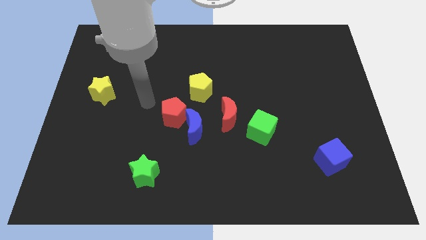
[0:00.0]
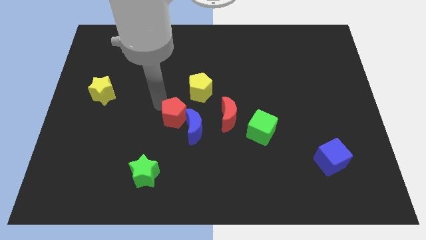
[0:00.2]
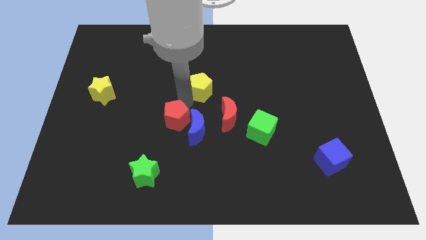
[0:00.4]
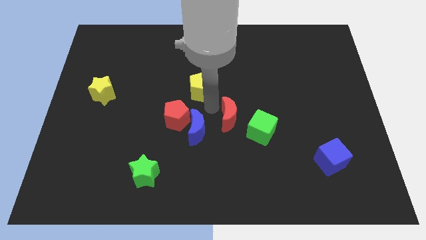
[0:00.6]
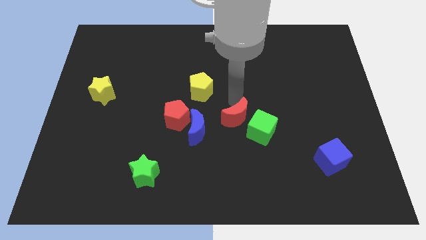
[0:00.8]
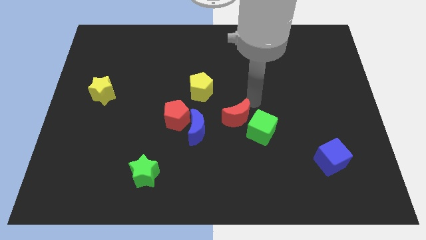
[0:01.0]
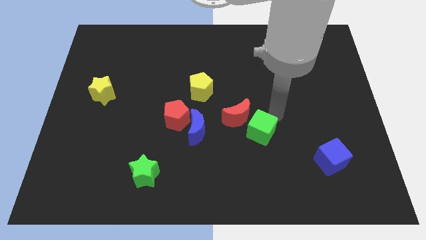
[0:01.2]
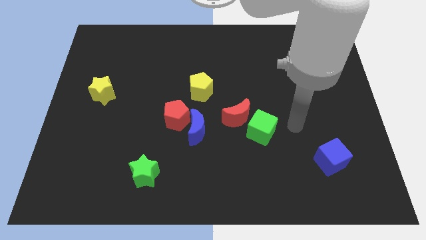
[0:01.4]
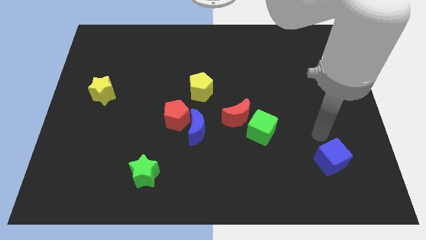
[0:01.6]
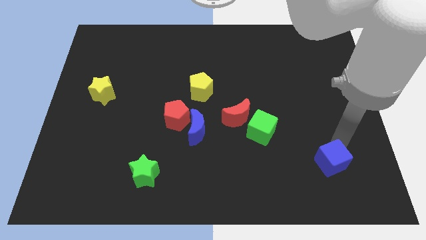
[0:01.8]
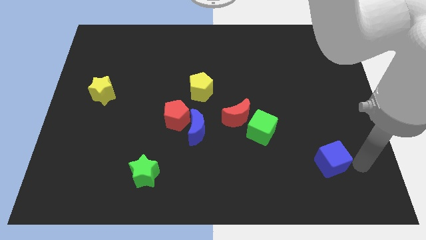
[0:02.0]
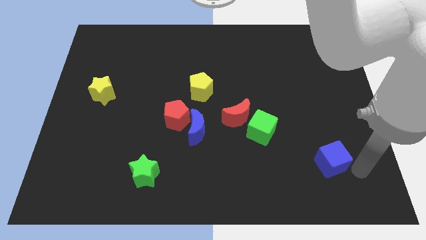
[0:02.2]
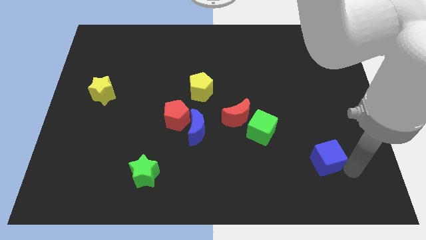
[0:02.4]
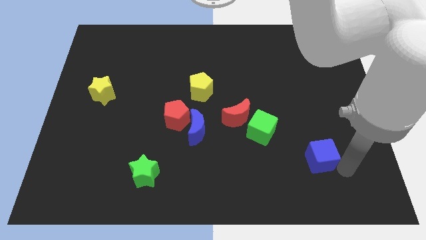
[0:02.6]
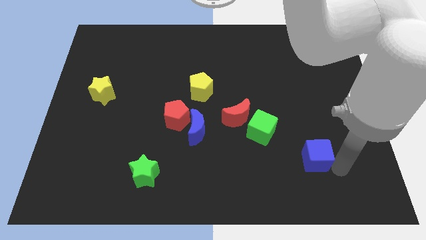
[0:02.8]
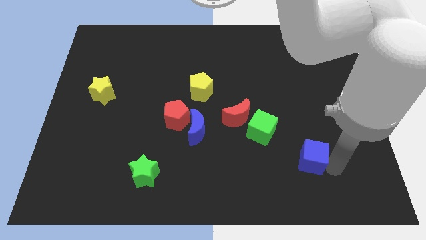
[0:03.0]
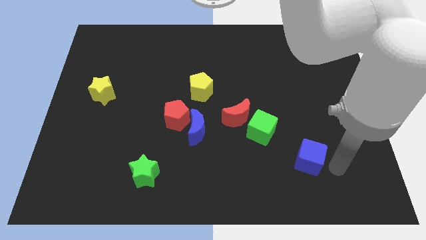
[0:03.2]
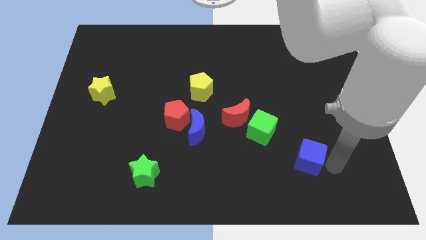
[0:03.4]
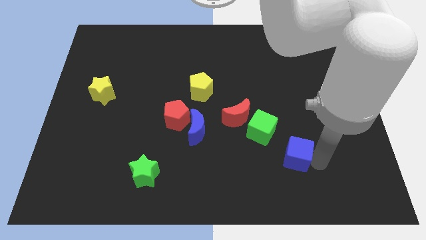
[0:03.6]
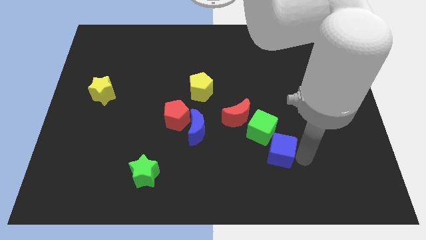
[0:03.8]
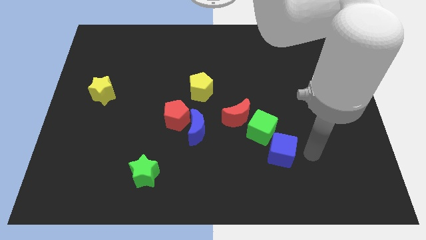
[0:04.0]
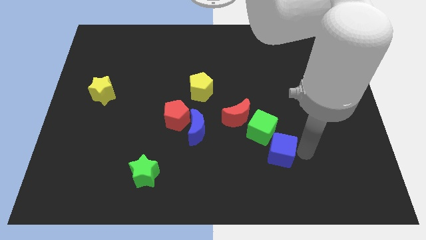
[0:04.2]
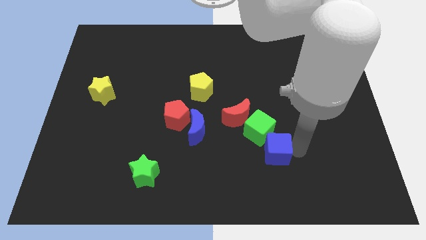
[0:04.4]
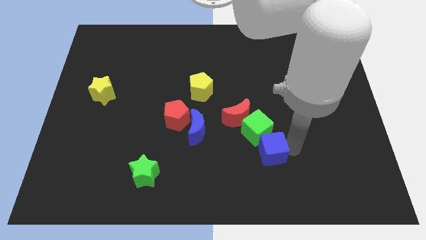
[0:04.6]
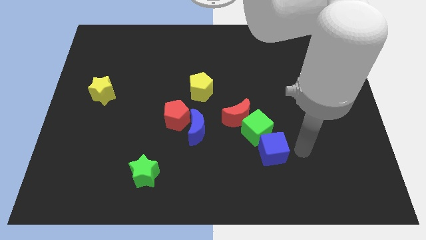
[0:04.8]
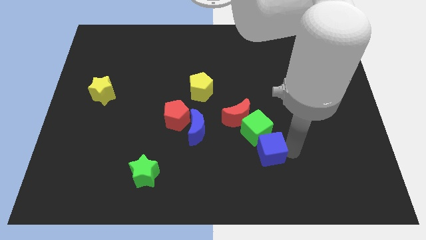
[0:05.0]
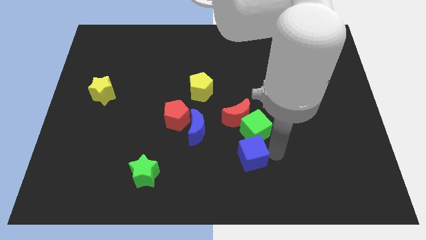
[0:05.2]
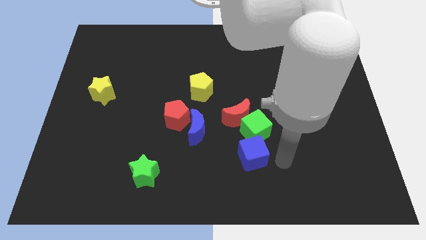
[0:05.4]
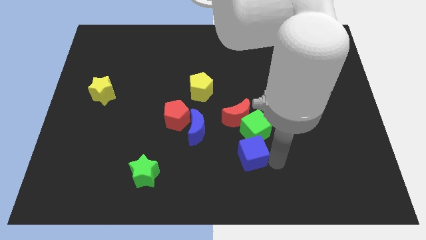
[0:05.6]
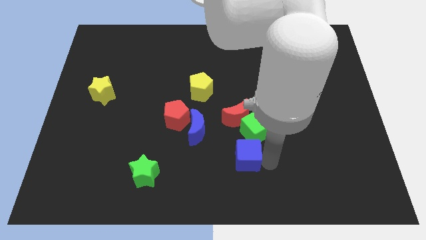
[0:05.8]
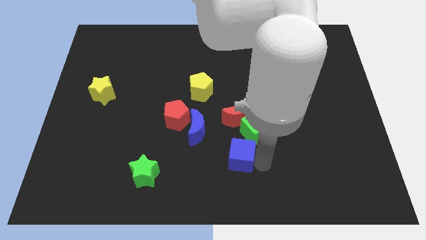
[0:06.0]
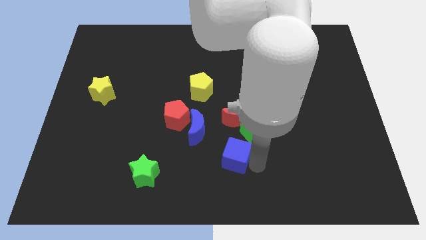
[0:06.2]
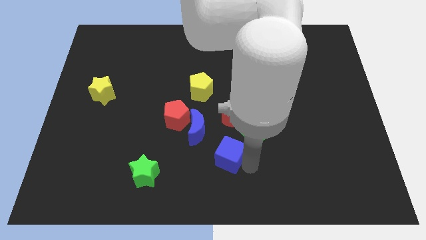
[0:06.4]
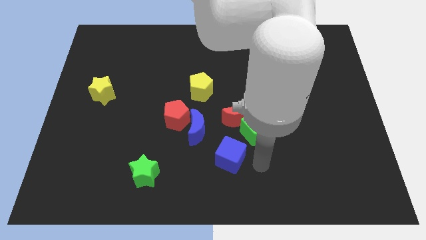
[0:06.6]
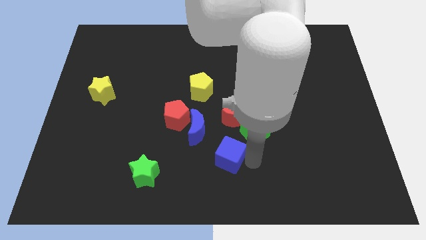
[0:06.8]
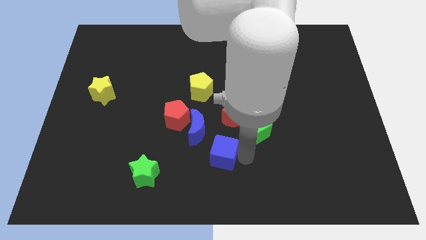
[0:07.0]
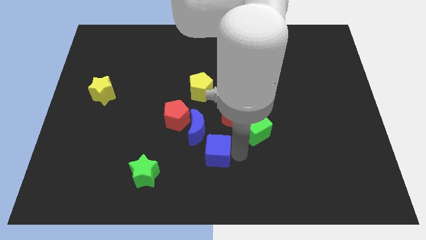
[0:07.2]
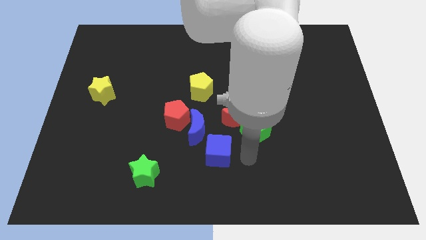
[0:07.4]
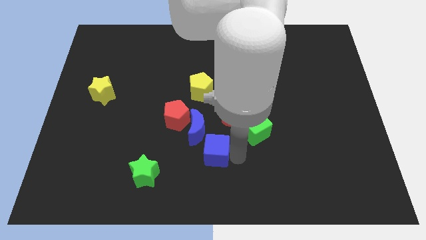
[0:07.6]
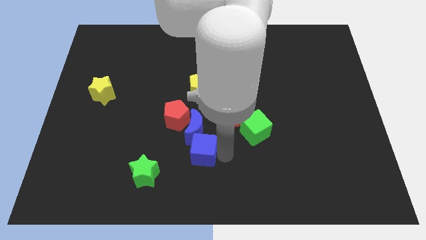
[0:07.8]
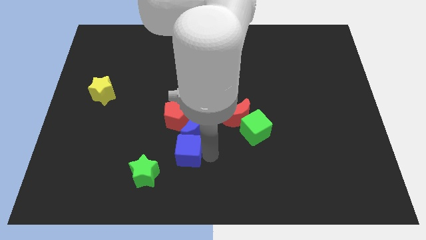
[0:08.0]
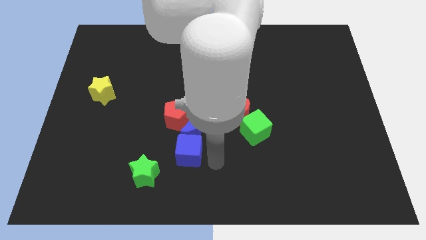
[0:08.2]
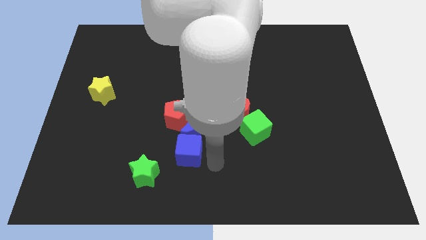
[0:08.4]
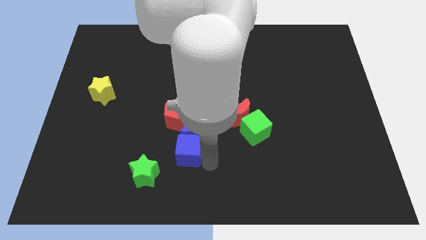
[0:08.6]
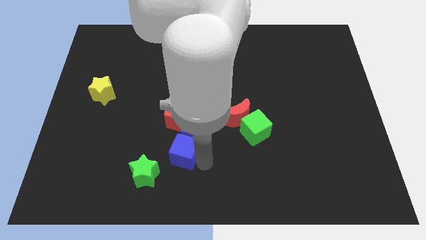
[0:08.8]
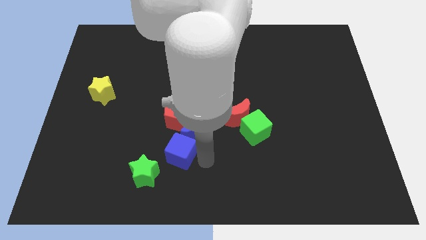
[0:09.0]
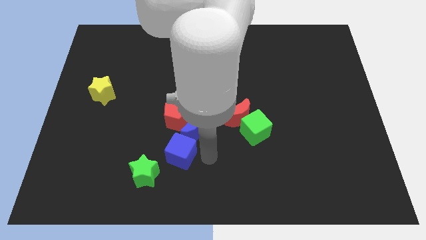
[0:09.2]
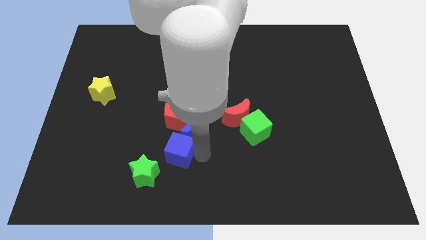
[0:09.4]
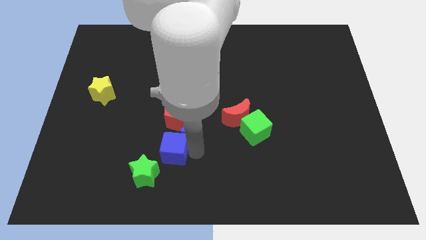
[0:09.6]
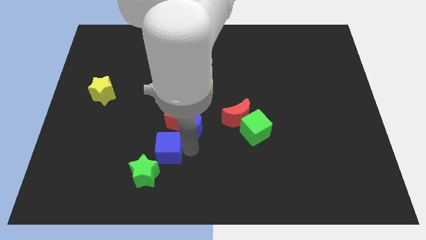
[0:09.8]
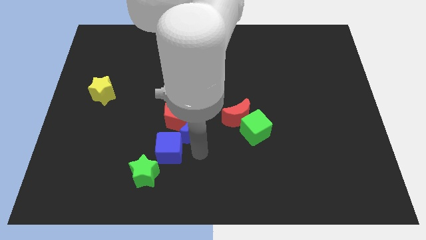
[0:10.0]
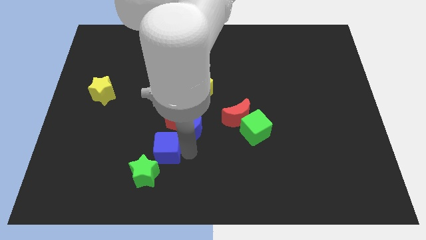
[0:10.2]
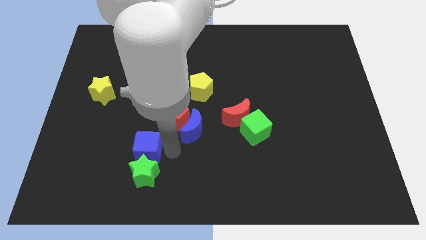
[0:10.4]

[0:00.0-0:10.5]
move the blue cube to the top left of the green star

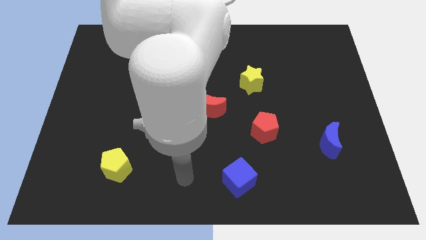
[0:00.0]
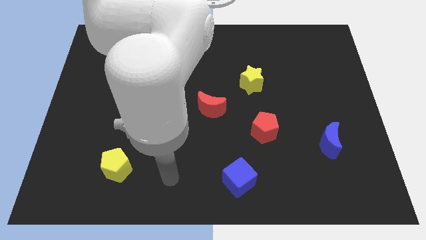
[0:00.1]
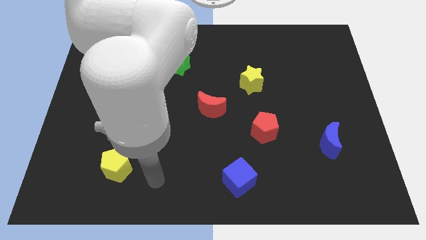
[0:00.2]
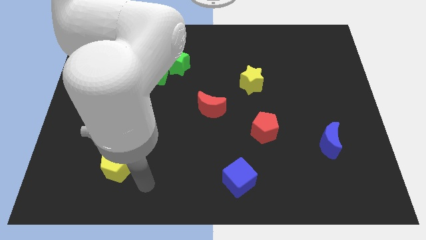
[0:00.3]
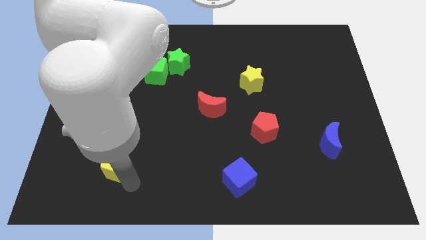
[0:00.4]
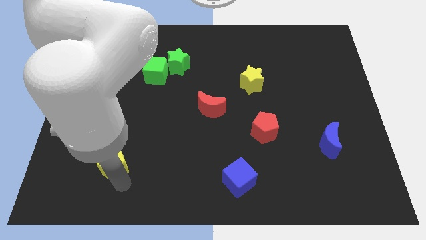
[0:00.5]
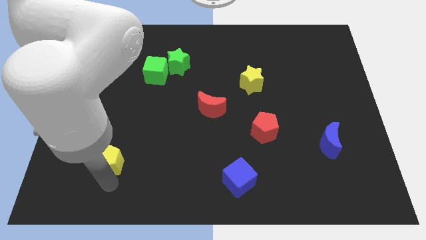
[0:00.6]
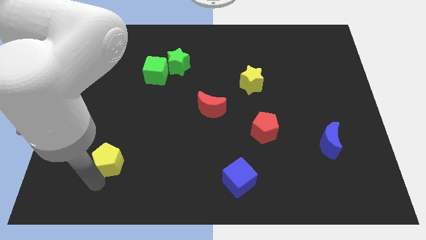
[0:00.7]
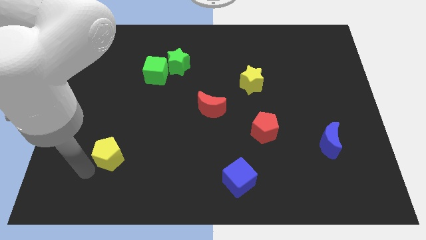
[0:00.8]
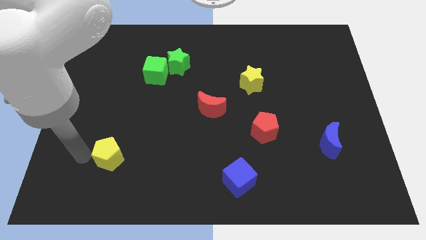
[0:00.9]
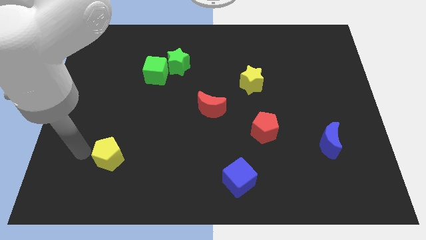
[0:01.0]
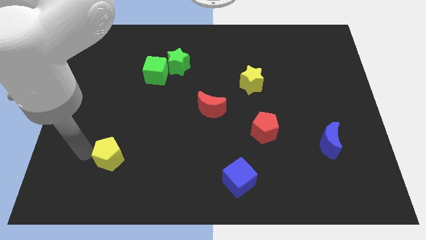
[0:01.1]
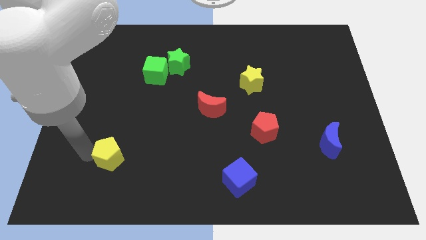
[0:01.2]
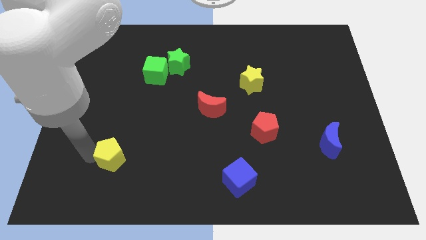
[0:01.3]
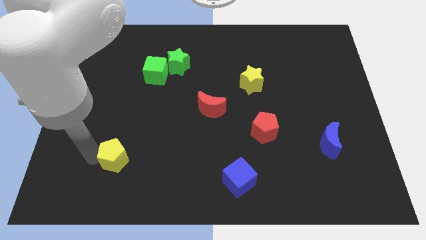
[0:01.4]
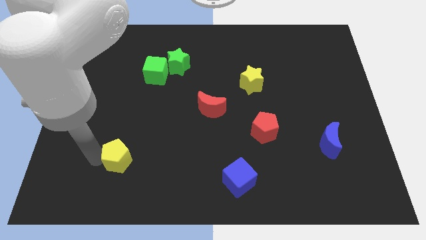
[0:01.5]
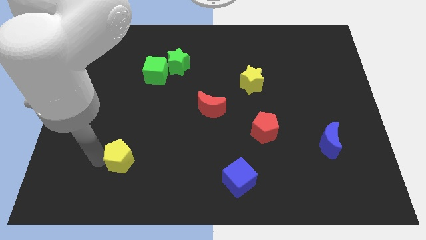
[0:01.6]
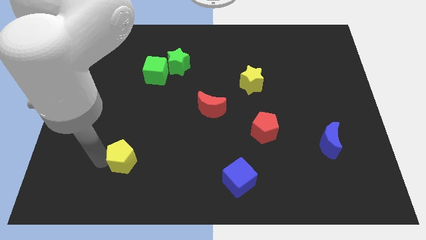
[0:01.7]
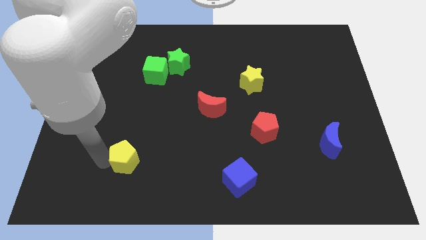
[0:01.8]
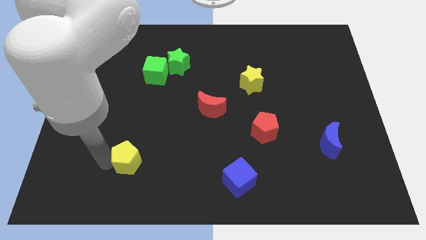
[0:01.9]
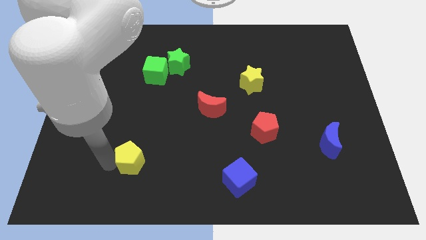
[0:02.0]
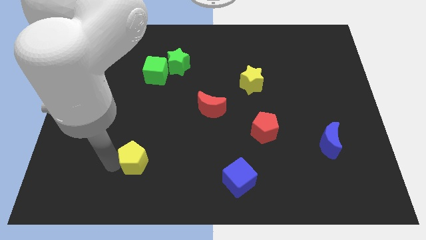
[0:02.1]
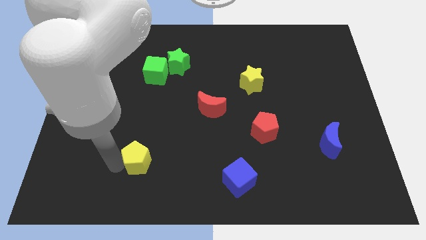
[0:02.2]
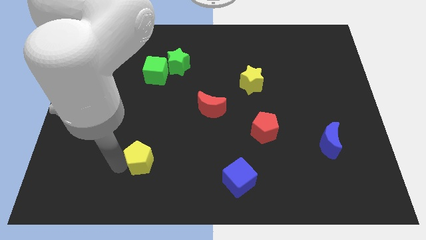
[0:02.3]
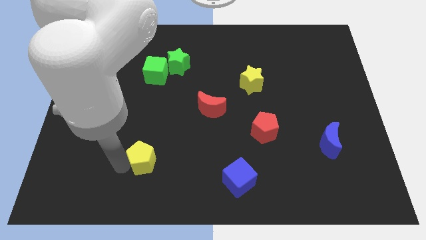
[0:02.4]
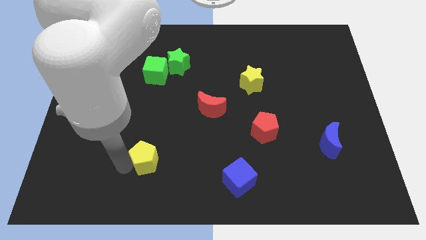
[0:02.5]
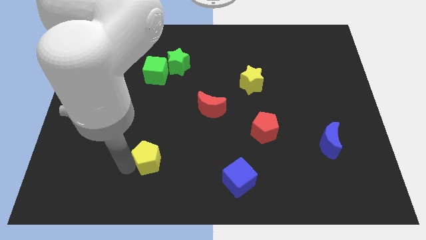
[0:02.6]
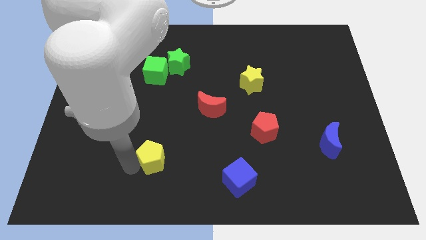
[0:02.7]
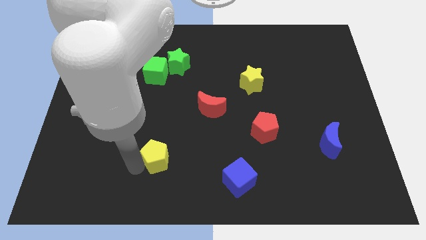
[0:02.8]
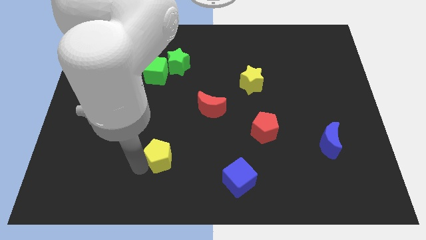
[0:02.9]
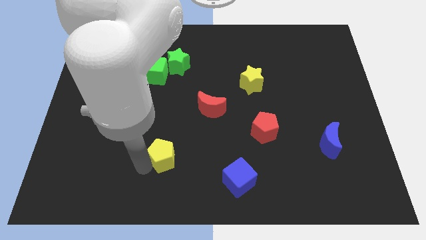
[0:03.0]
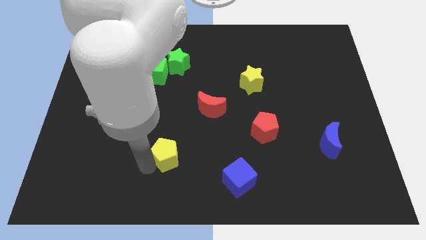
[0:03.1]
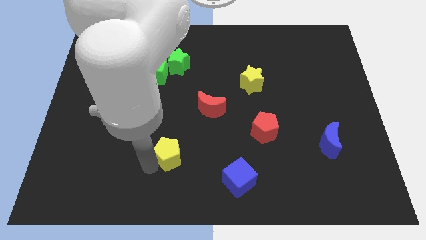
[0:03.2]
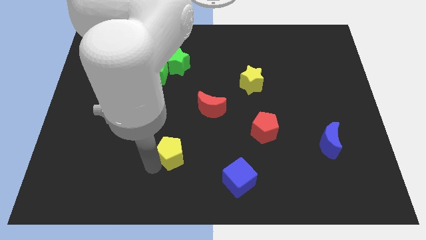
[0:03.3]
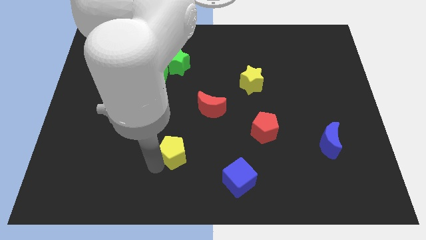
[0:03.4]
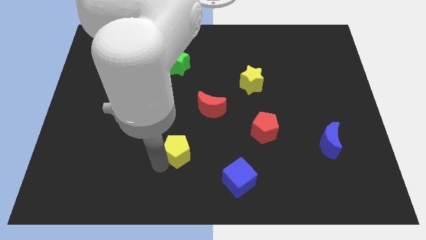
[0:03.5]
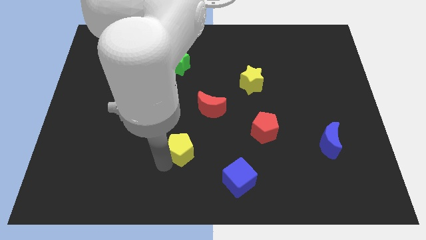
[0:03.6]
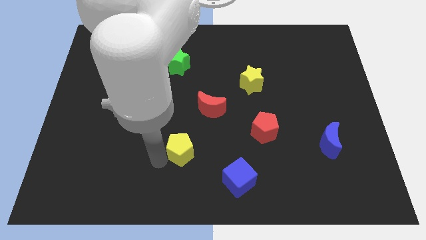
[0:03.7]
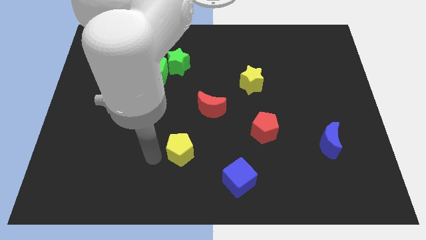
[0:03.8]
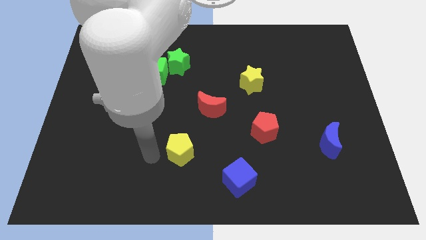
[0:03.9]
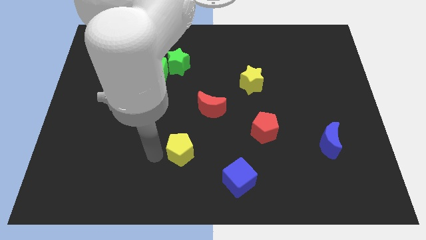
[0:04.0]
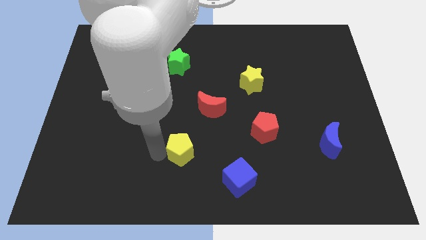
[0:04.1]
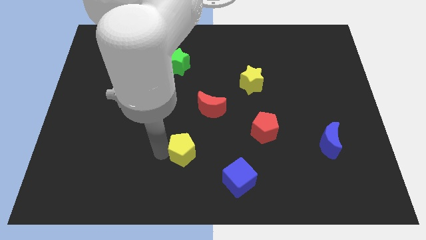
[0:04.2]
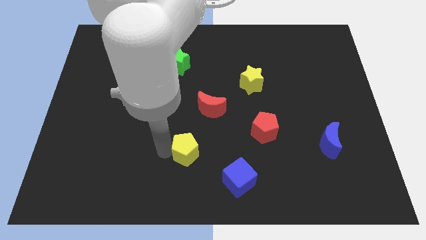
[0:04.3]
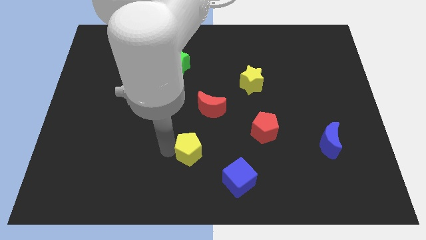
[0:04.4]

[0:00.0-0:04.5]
put the yellow pentagon to the bottom side of the red moon
